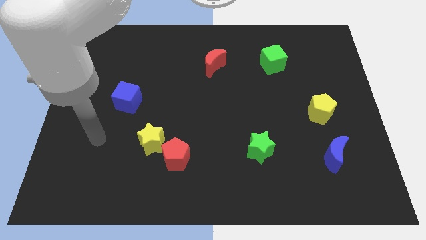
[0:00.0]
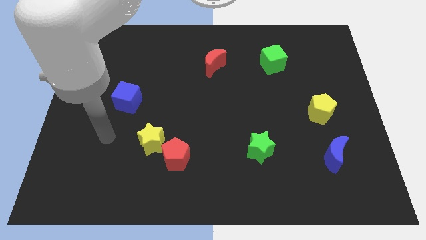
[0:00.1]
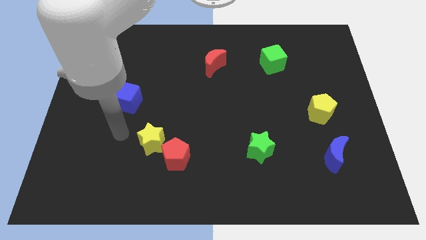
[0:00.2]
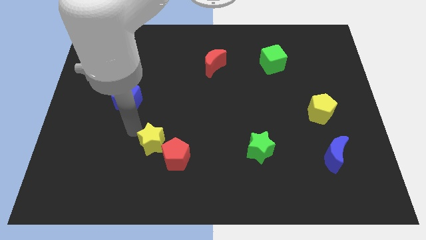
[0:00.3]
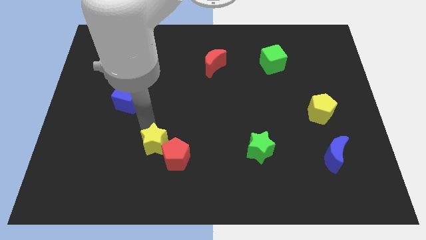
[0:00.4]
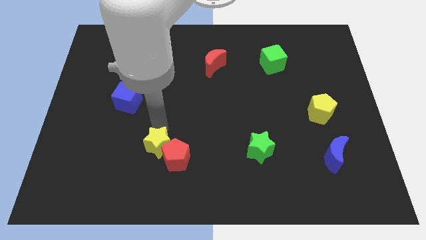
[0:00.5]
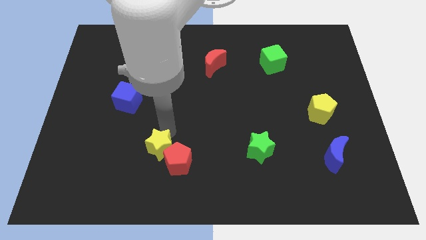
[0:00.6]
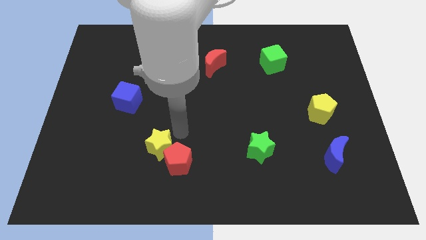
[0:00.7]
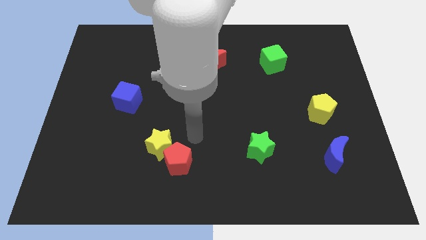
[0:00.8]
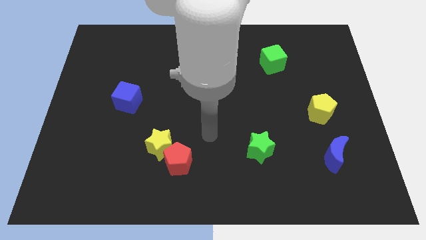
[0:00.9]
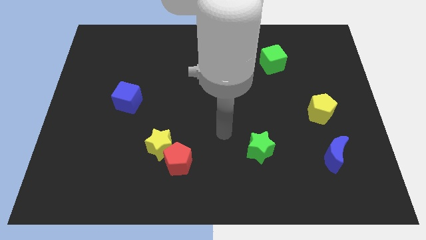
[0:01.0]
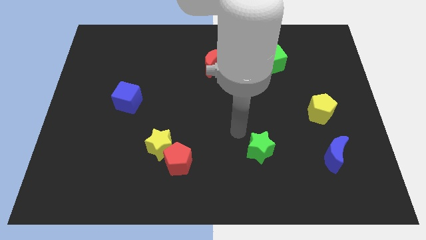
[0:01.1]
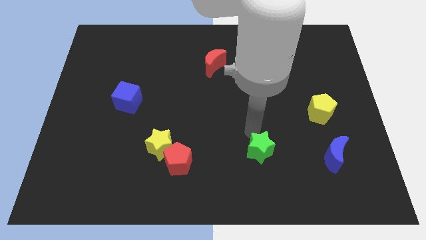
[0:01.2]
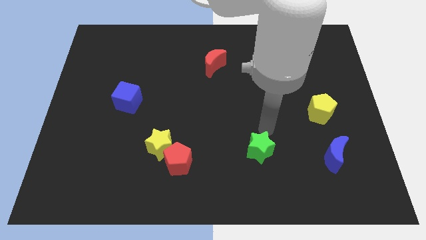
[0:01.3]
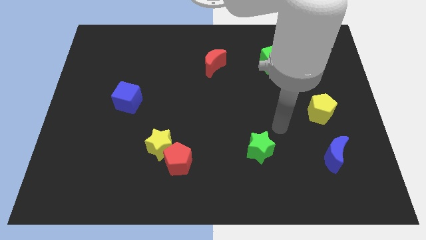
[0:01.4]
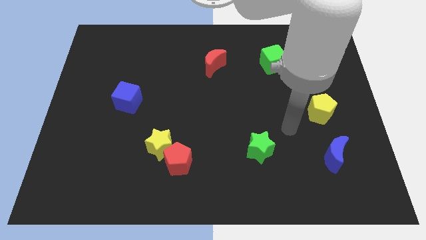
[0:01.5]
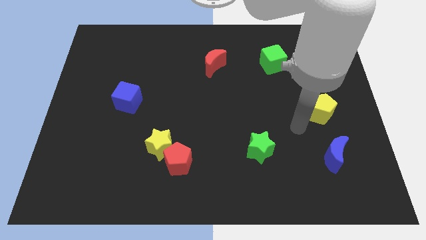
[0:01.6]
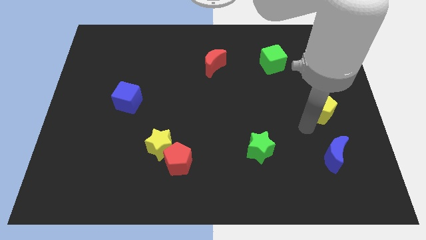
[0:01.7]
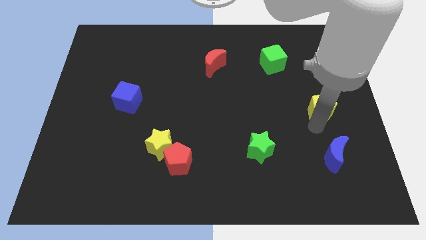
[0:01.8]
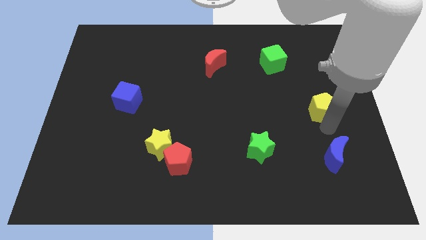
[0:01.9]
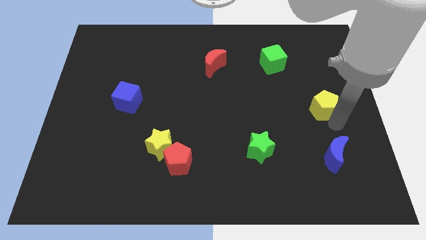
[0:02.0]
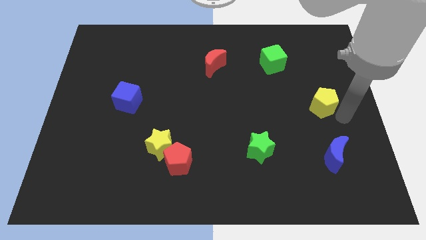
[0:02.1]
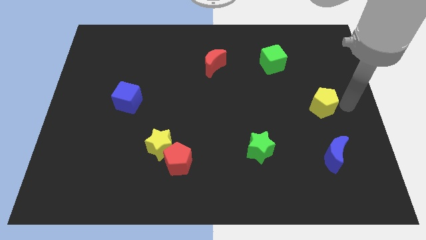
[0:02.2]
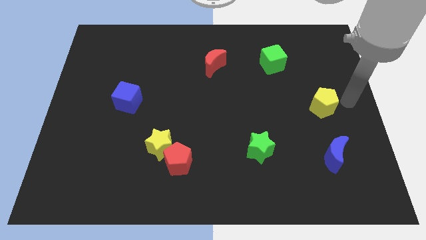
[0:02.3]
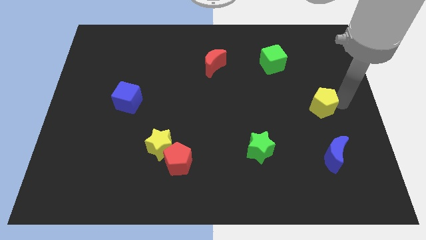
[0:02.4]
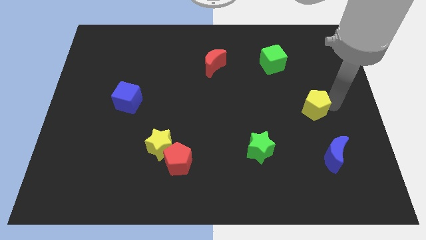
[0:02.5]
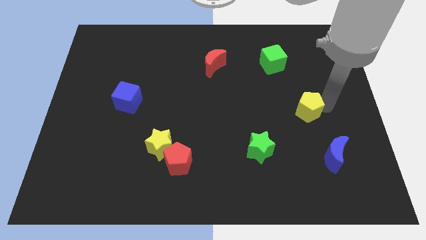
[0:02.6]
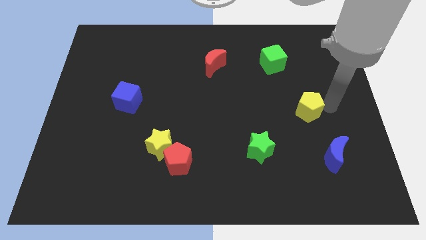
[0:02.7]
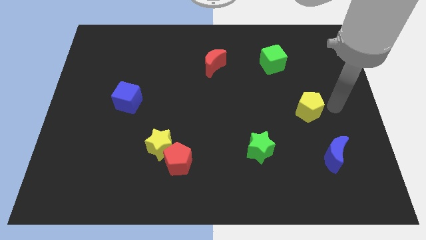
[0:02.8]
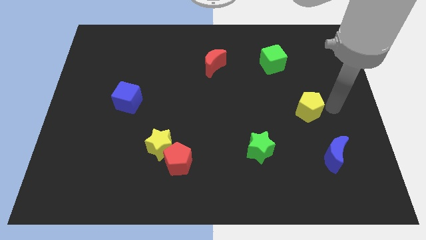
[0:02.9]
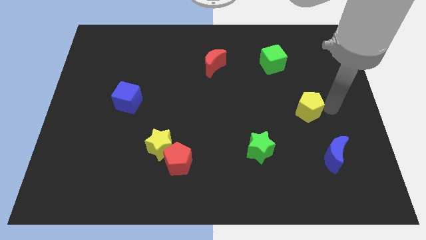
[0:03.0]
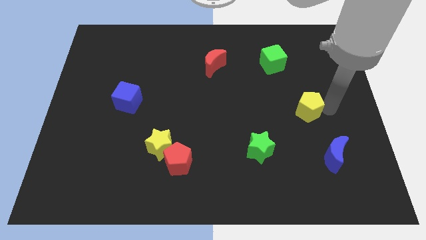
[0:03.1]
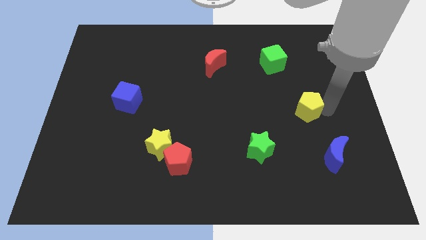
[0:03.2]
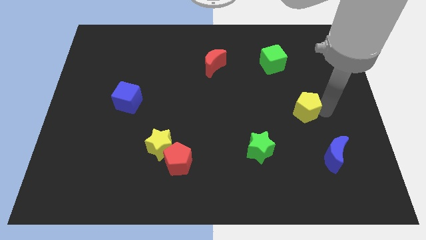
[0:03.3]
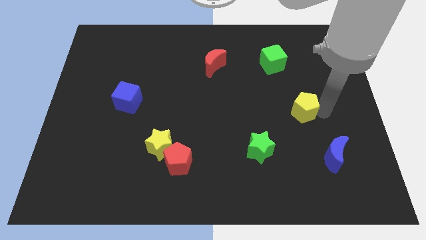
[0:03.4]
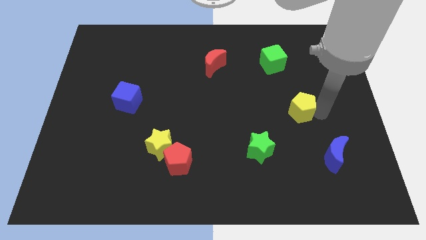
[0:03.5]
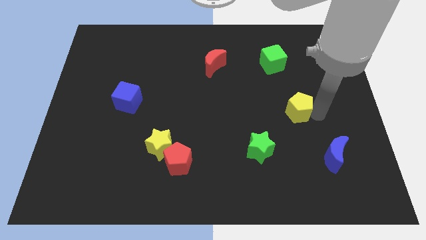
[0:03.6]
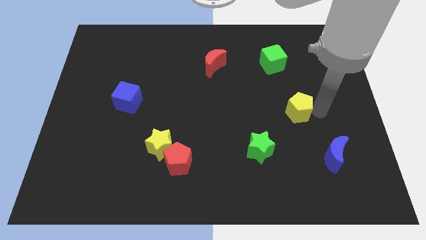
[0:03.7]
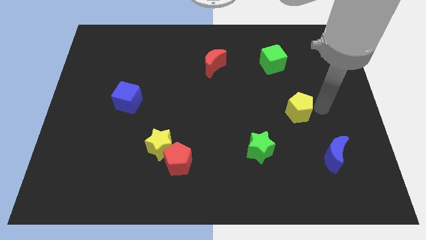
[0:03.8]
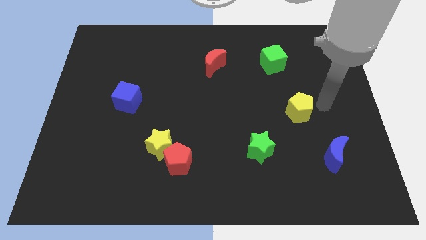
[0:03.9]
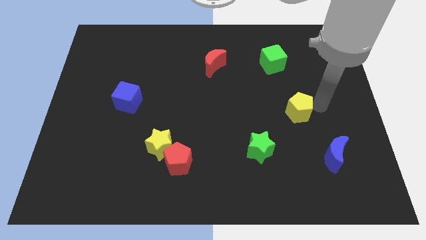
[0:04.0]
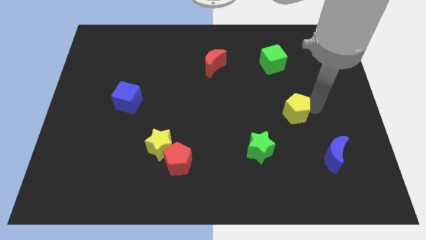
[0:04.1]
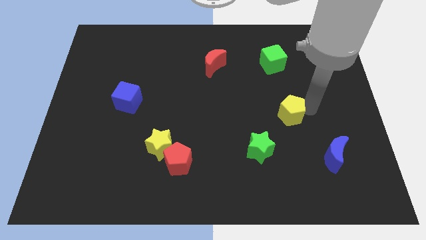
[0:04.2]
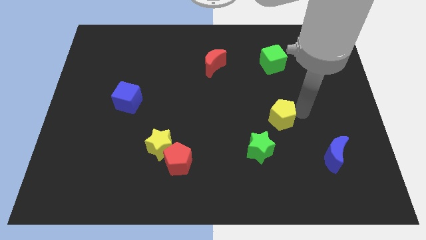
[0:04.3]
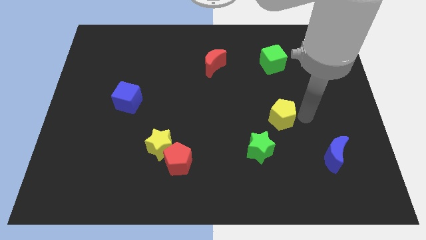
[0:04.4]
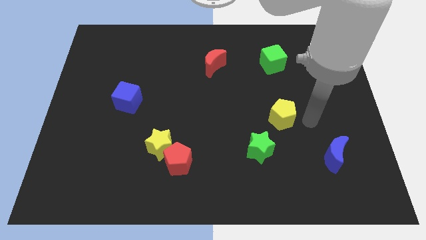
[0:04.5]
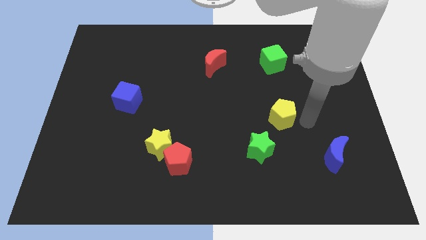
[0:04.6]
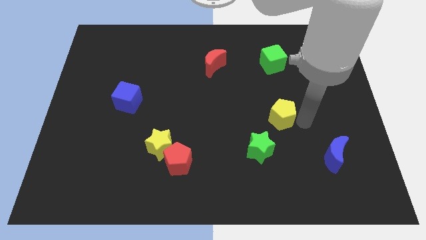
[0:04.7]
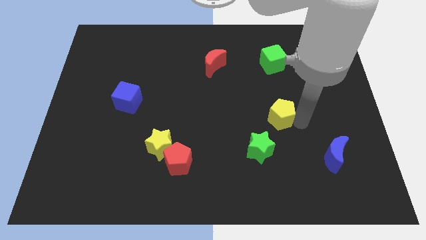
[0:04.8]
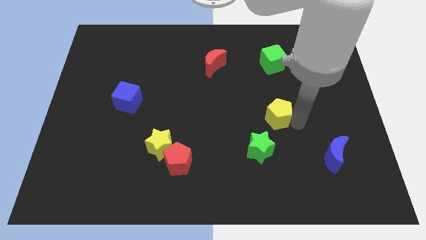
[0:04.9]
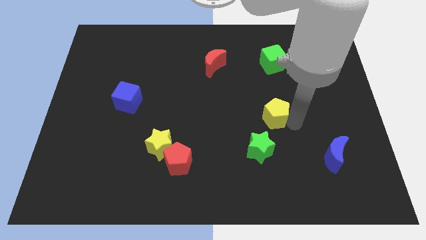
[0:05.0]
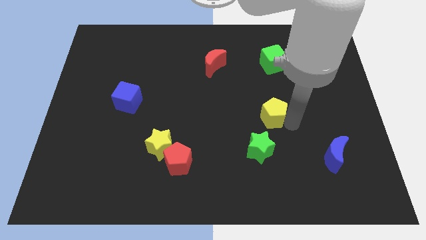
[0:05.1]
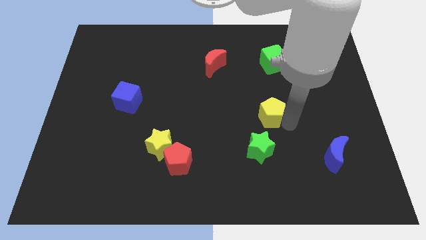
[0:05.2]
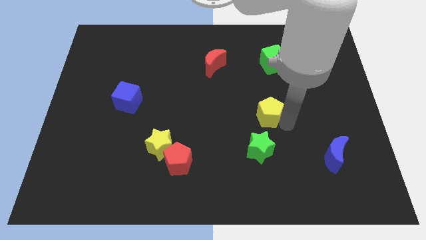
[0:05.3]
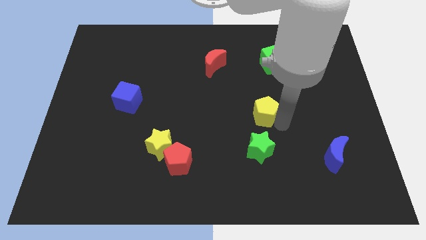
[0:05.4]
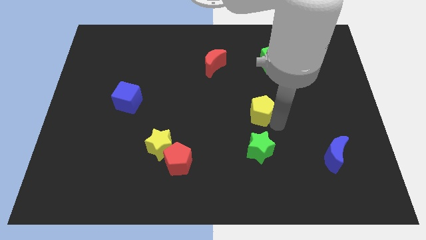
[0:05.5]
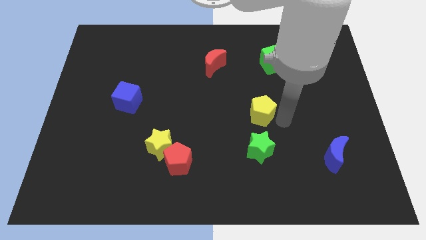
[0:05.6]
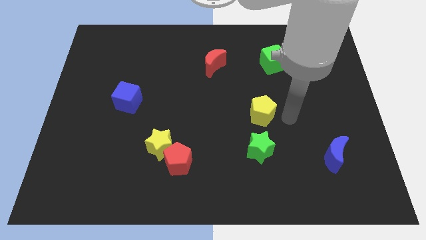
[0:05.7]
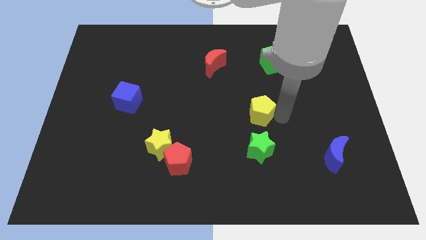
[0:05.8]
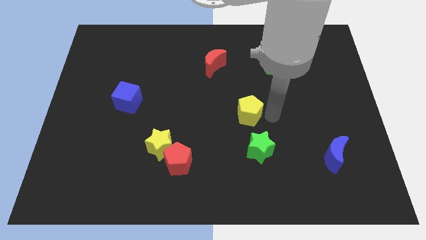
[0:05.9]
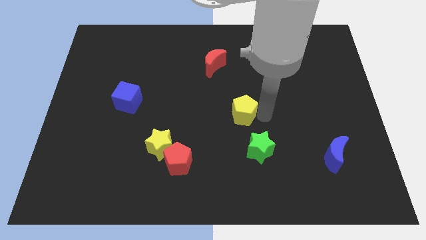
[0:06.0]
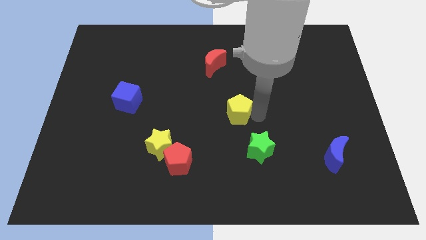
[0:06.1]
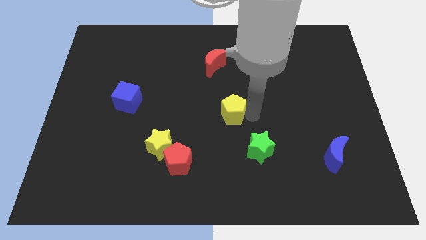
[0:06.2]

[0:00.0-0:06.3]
push the yellow pentagon to the left

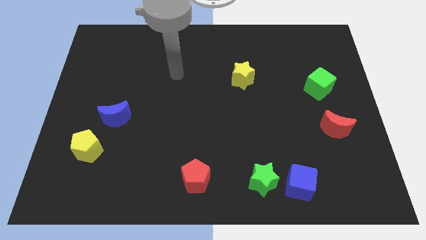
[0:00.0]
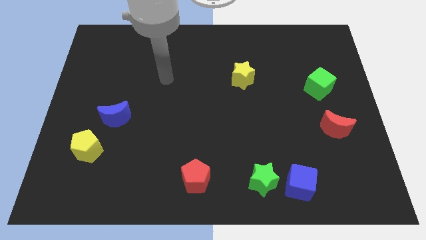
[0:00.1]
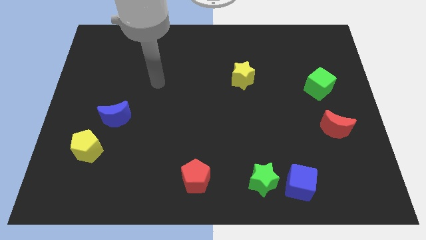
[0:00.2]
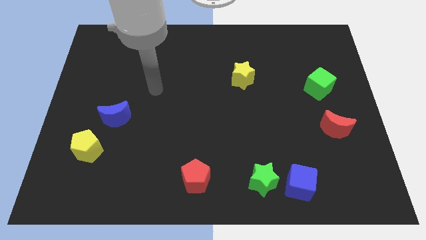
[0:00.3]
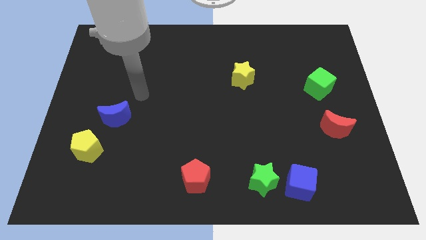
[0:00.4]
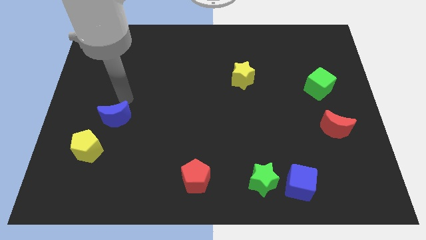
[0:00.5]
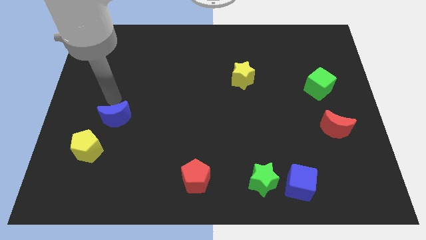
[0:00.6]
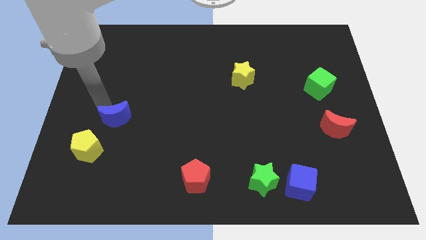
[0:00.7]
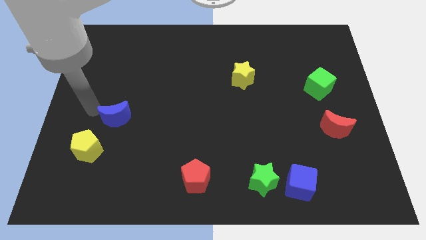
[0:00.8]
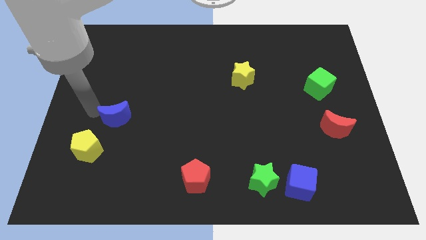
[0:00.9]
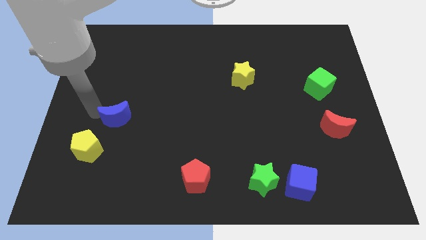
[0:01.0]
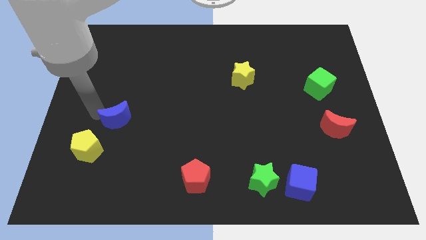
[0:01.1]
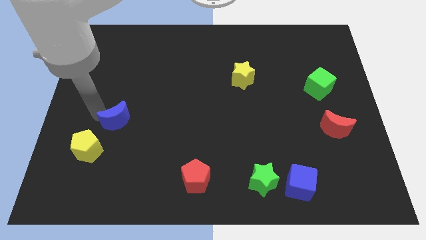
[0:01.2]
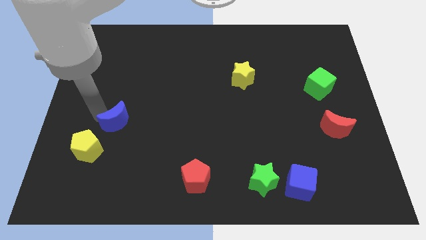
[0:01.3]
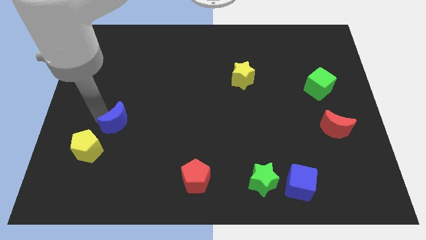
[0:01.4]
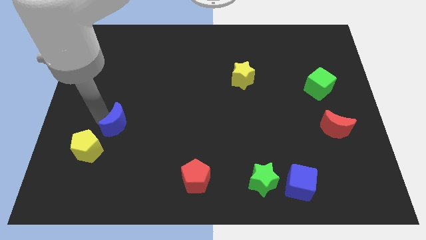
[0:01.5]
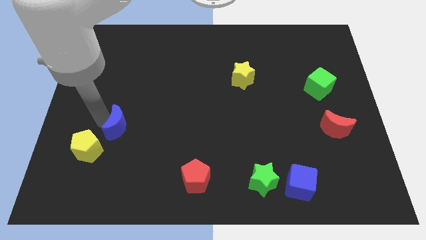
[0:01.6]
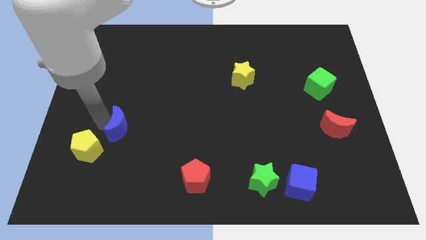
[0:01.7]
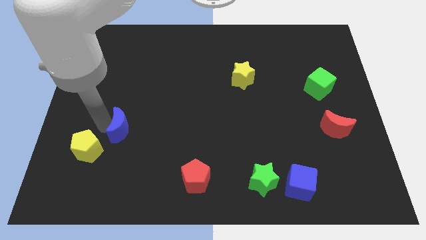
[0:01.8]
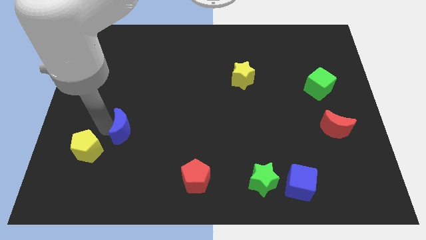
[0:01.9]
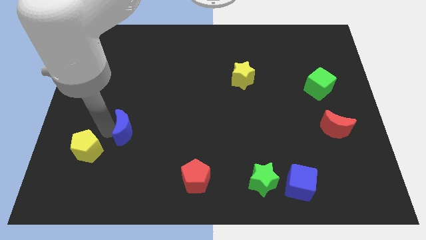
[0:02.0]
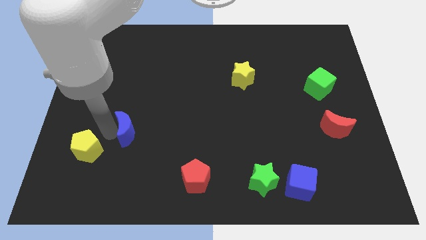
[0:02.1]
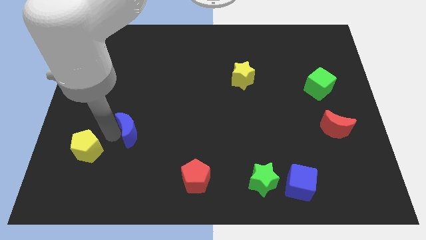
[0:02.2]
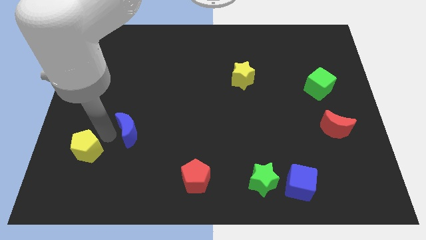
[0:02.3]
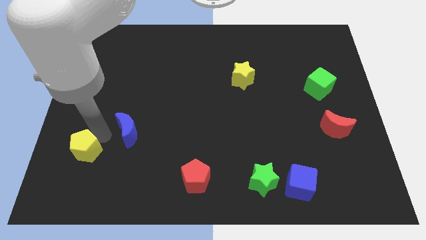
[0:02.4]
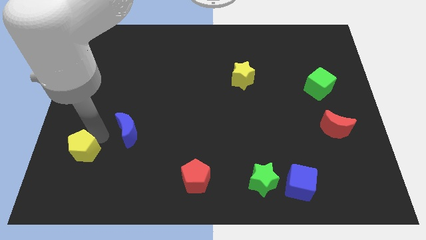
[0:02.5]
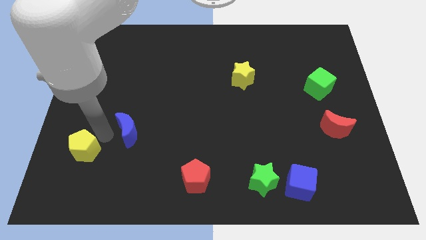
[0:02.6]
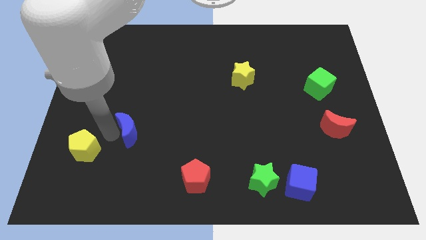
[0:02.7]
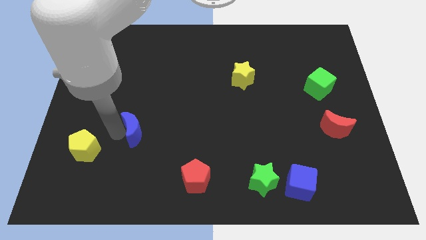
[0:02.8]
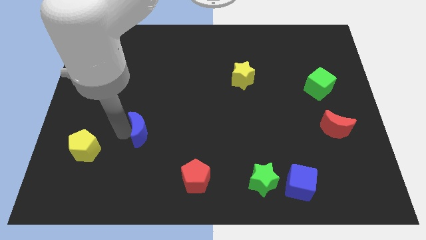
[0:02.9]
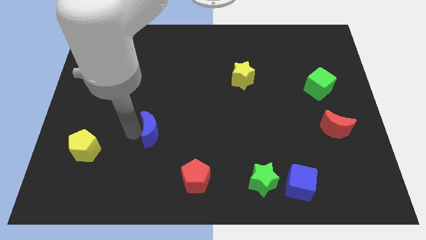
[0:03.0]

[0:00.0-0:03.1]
push the blue moon to the right somewhat
